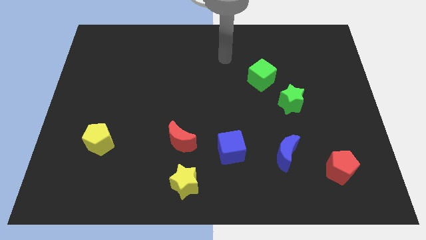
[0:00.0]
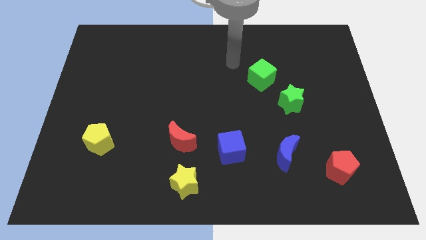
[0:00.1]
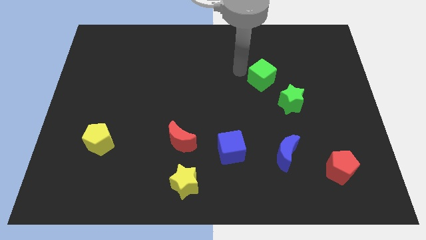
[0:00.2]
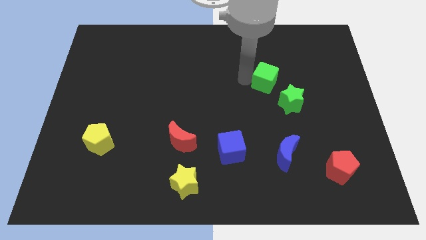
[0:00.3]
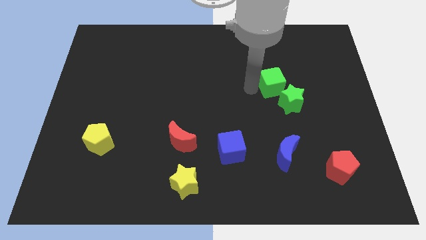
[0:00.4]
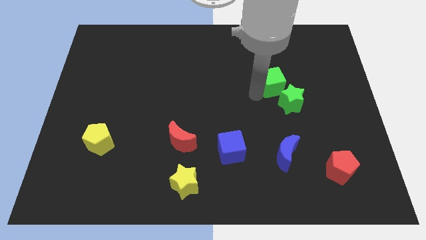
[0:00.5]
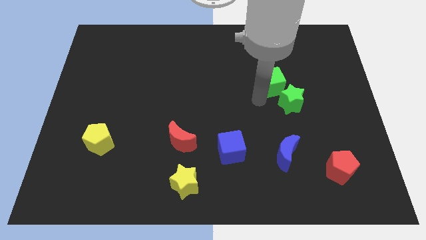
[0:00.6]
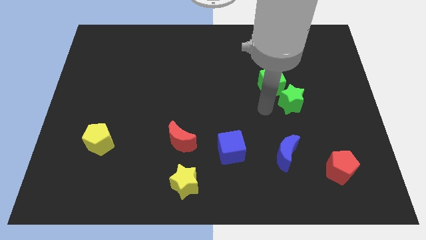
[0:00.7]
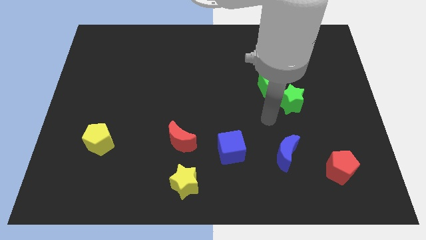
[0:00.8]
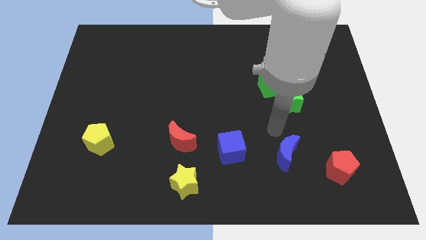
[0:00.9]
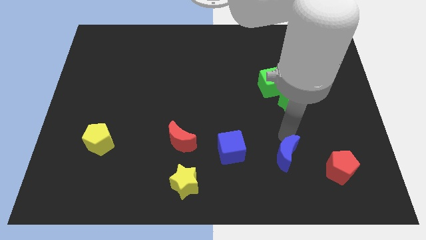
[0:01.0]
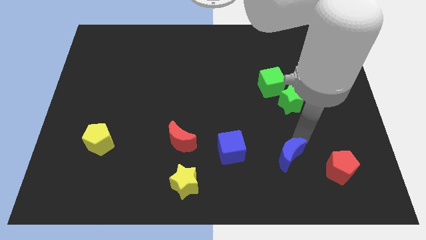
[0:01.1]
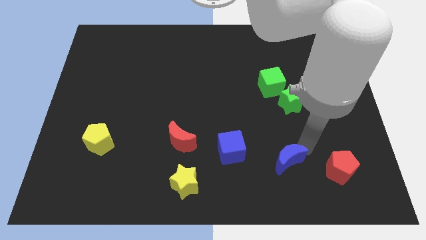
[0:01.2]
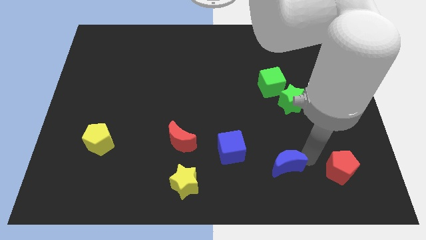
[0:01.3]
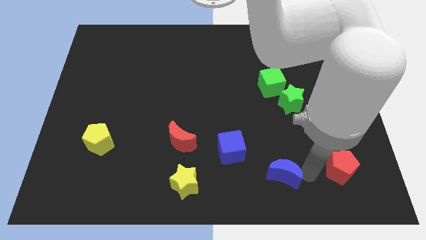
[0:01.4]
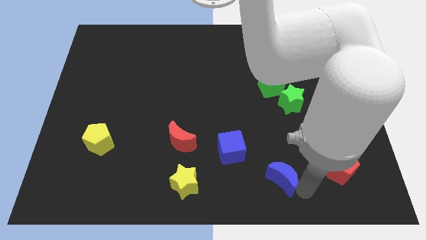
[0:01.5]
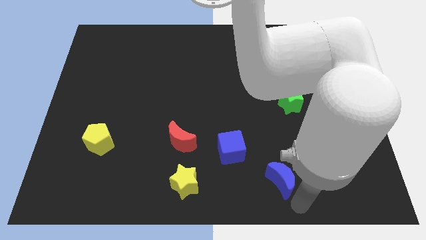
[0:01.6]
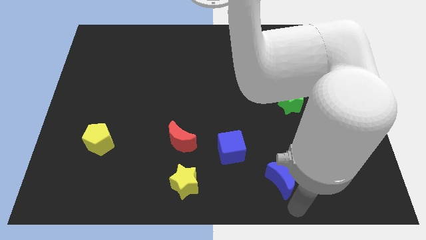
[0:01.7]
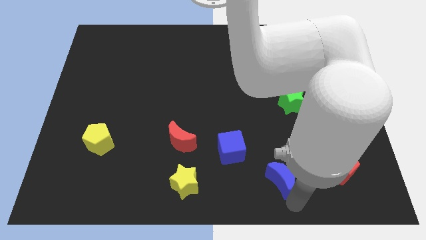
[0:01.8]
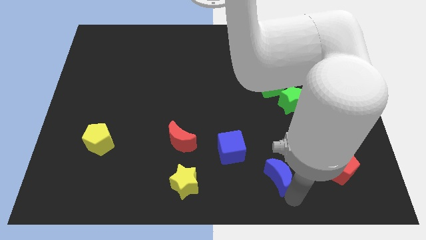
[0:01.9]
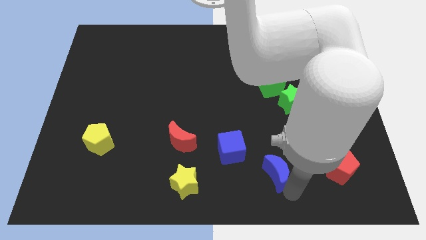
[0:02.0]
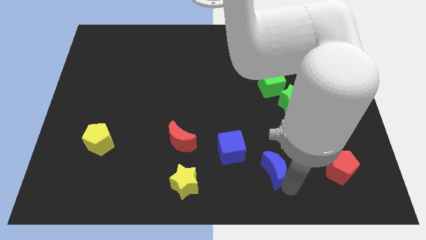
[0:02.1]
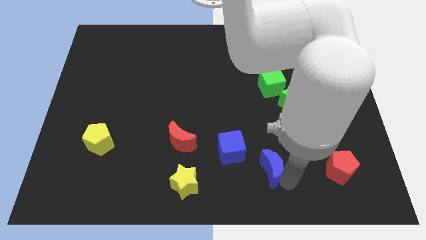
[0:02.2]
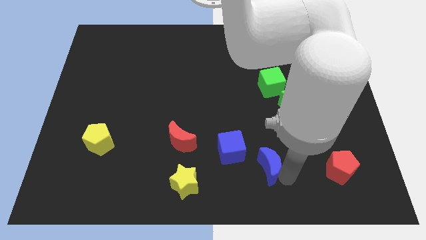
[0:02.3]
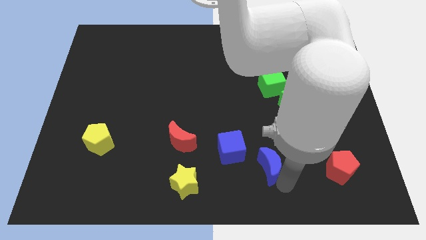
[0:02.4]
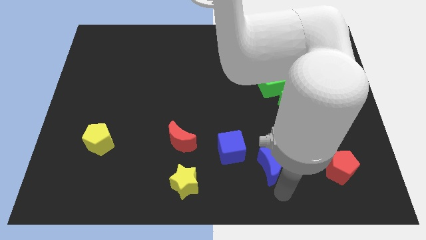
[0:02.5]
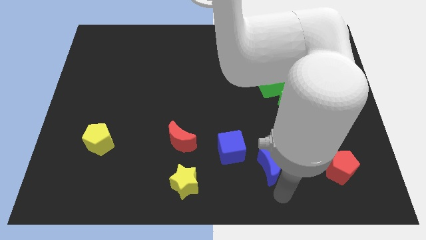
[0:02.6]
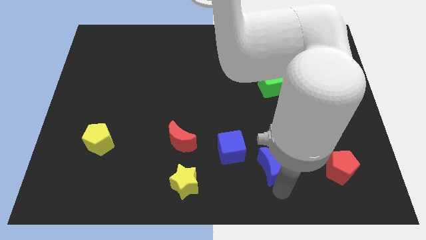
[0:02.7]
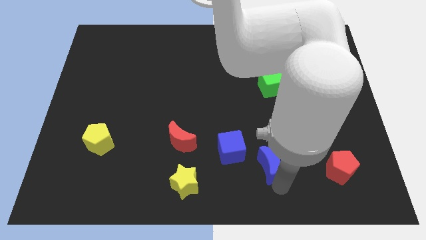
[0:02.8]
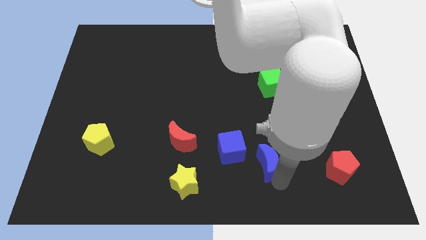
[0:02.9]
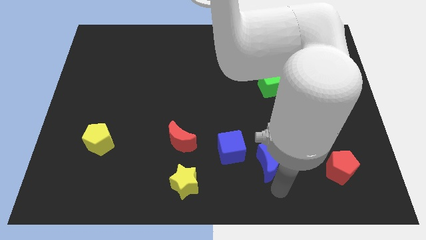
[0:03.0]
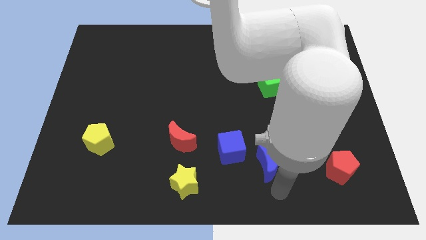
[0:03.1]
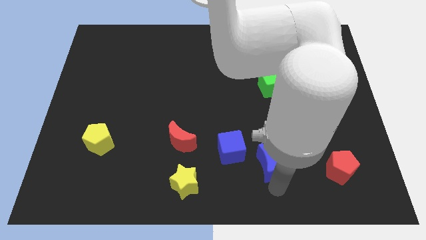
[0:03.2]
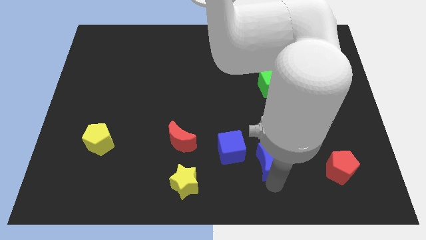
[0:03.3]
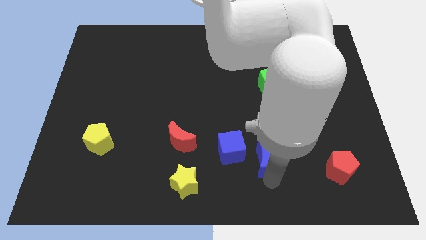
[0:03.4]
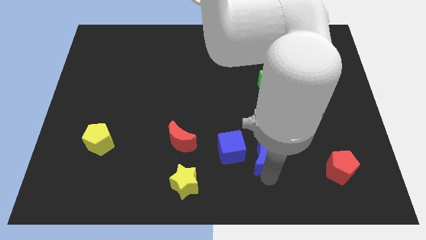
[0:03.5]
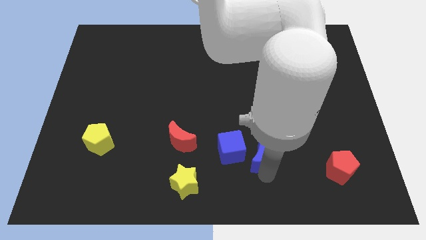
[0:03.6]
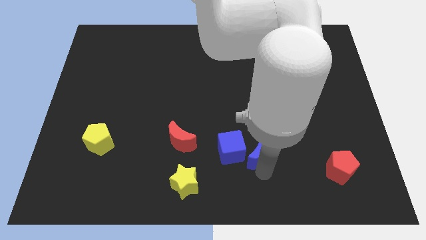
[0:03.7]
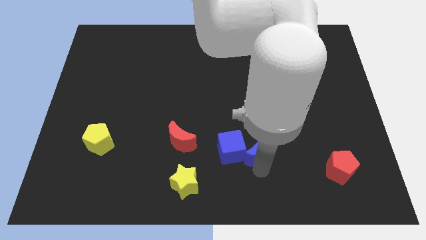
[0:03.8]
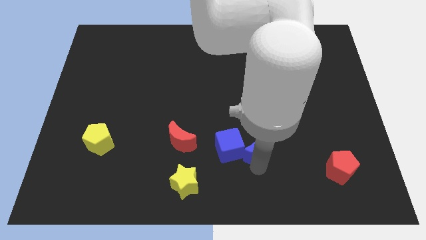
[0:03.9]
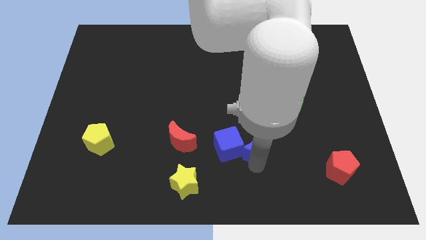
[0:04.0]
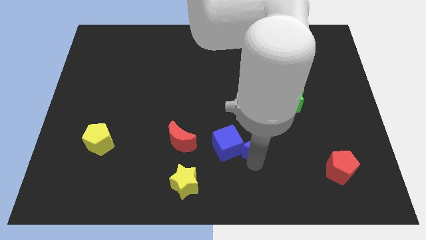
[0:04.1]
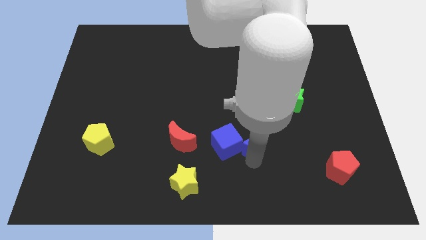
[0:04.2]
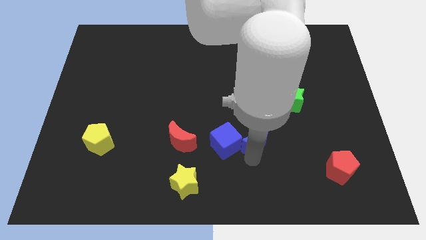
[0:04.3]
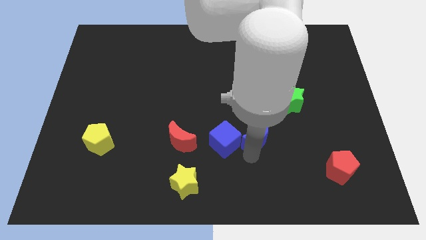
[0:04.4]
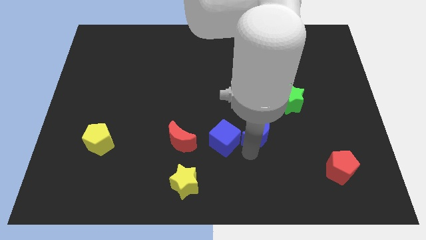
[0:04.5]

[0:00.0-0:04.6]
push the blue moon slightly diagonally upwards and left

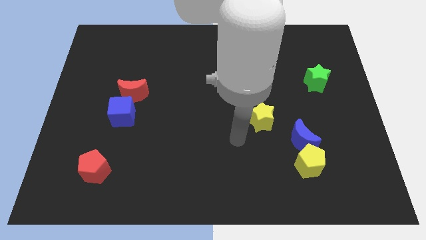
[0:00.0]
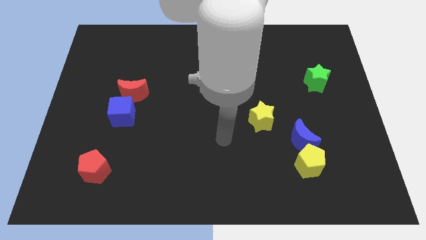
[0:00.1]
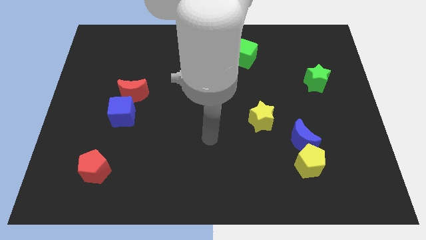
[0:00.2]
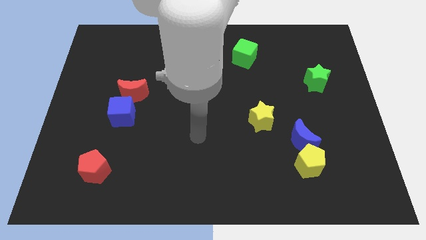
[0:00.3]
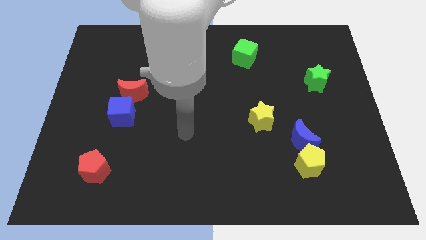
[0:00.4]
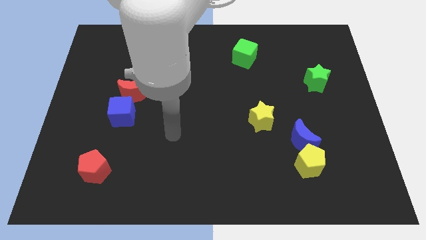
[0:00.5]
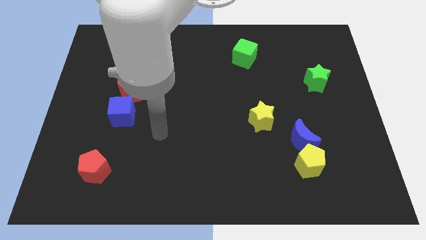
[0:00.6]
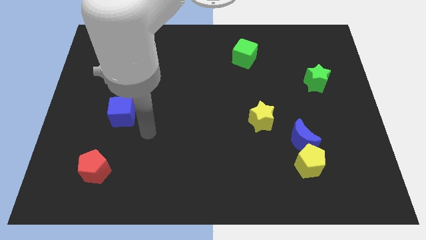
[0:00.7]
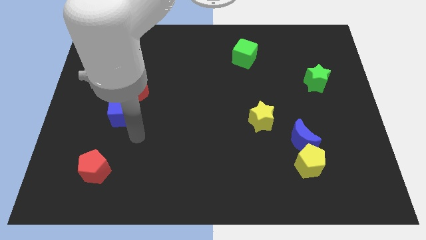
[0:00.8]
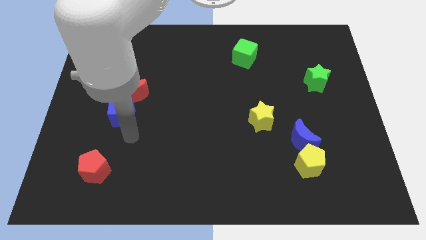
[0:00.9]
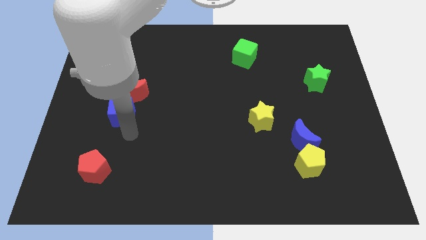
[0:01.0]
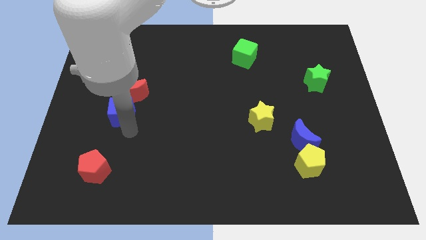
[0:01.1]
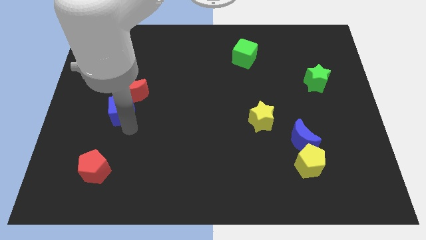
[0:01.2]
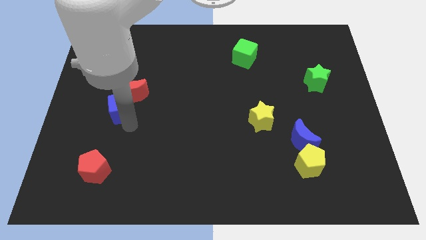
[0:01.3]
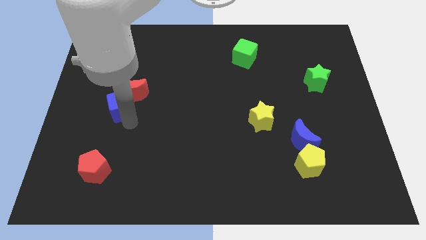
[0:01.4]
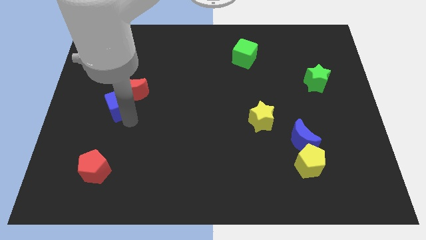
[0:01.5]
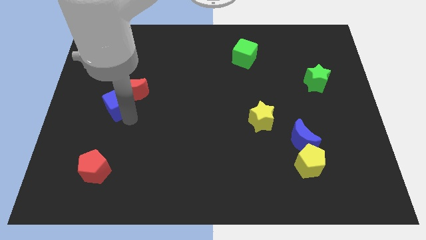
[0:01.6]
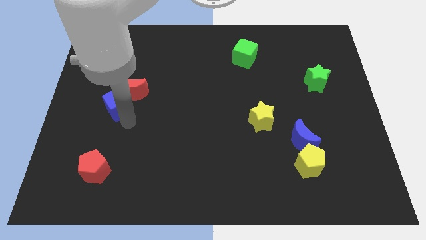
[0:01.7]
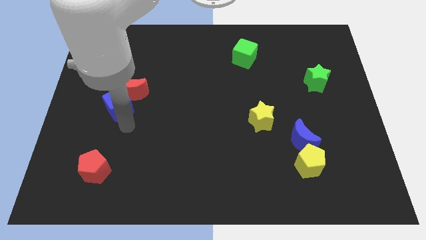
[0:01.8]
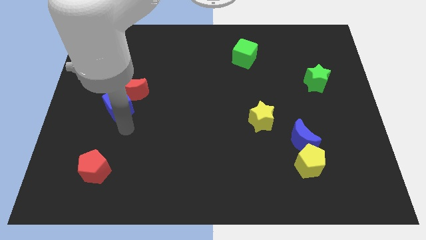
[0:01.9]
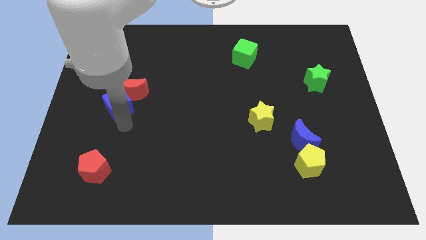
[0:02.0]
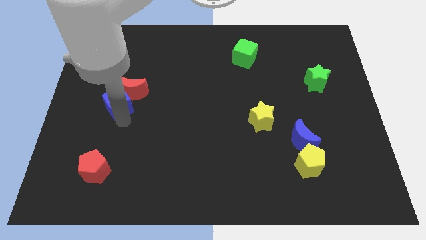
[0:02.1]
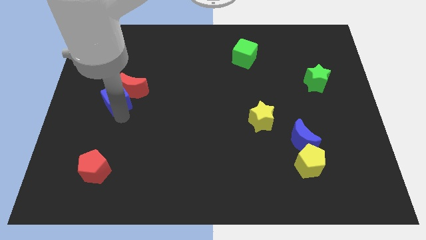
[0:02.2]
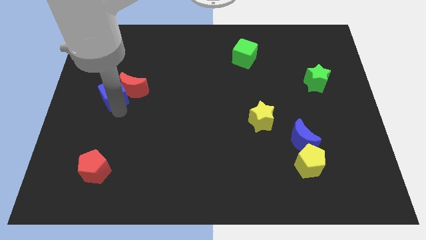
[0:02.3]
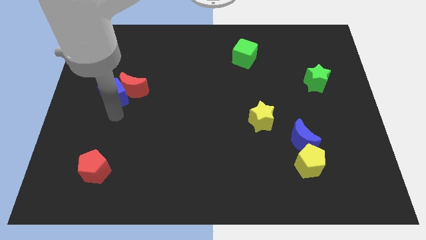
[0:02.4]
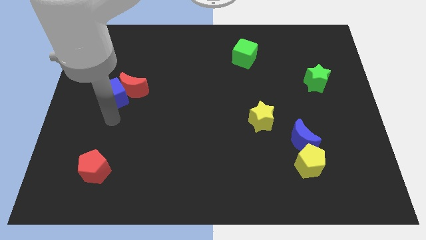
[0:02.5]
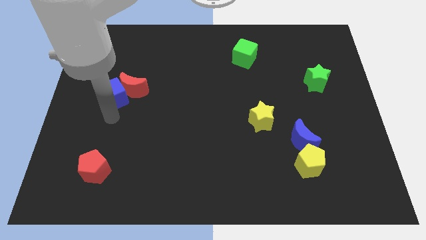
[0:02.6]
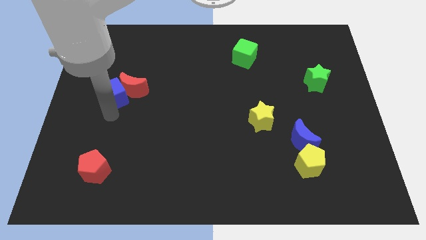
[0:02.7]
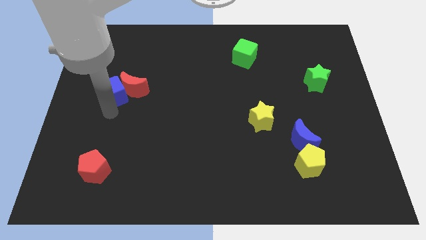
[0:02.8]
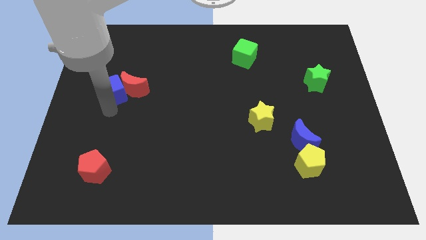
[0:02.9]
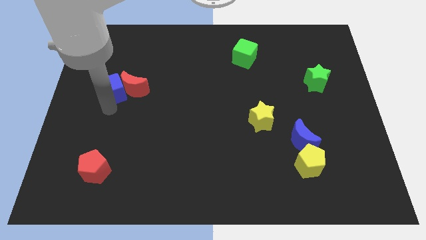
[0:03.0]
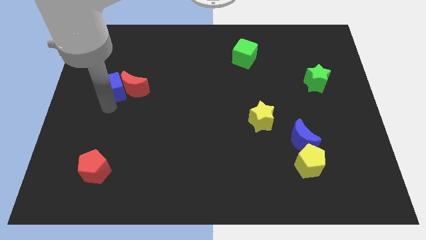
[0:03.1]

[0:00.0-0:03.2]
push the blue cube upwards a little

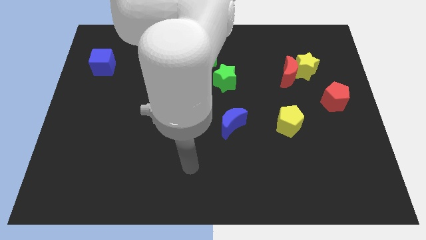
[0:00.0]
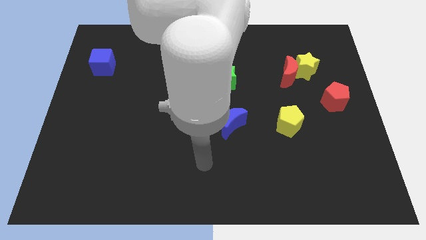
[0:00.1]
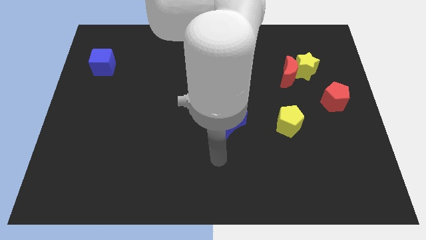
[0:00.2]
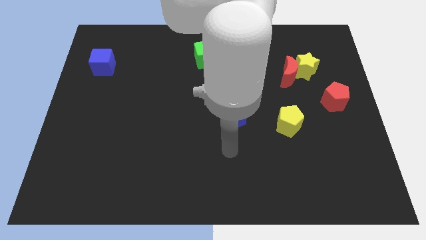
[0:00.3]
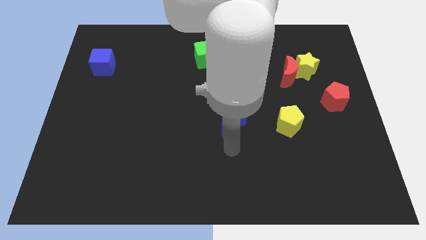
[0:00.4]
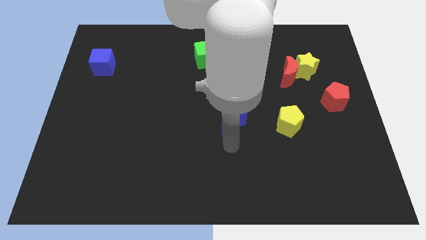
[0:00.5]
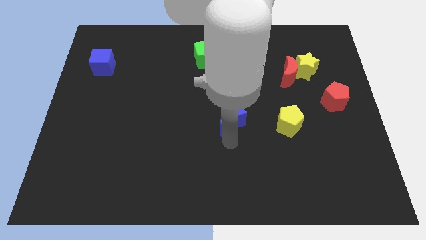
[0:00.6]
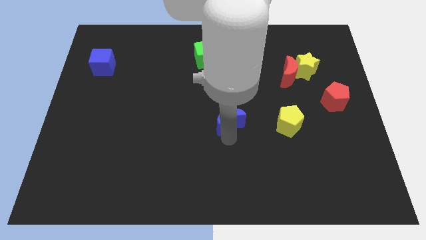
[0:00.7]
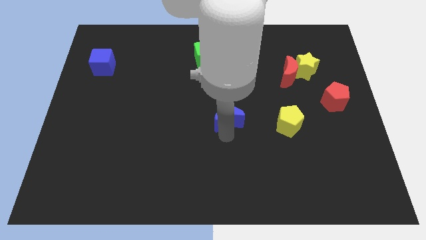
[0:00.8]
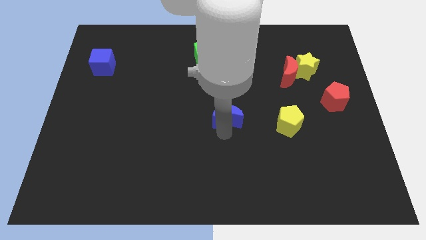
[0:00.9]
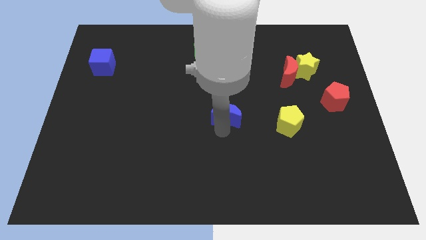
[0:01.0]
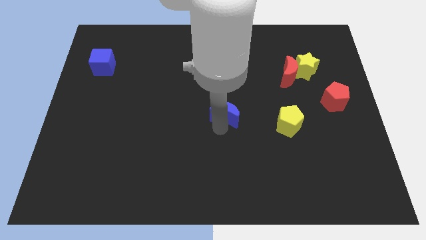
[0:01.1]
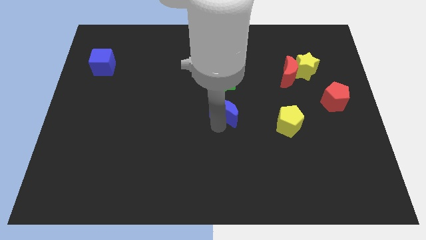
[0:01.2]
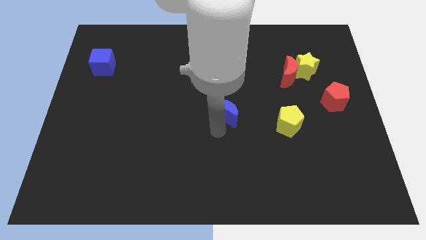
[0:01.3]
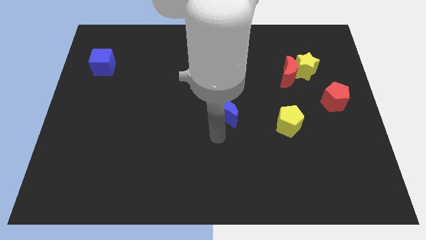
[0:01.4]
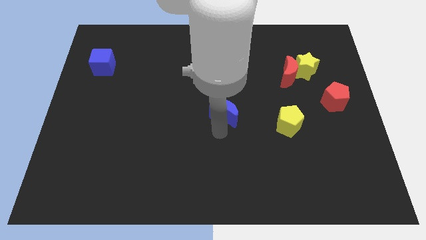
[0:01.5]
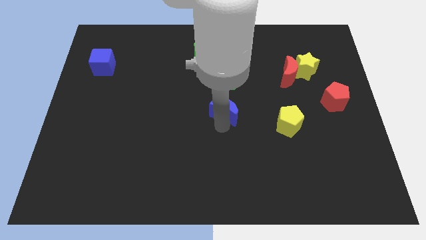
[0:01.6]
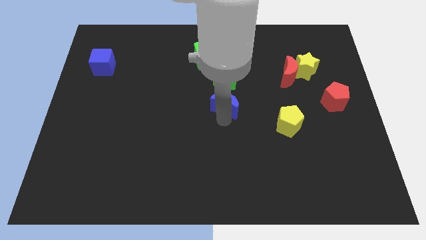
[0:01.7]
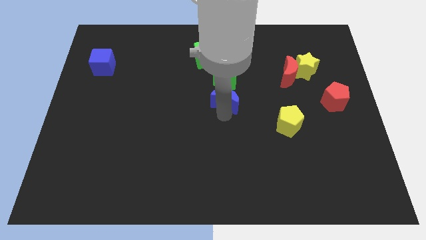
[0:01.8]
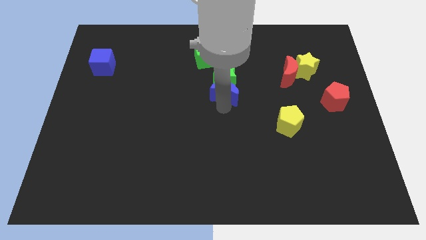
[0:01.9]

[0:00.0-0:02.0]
push the blue moon up a little bit
